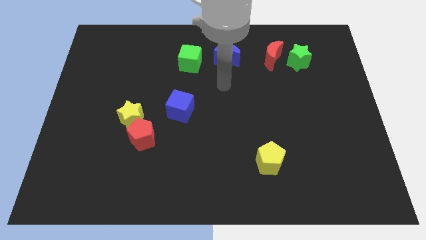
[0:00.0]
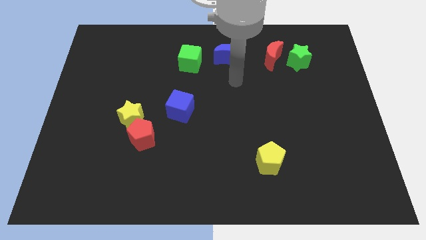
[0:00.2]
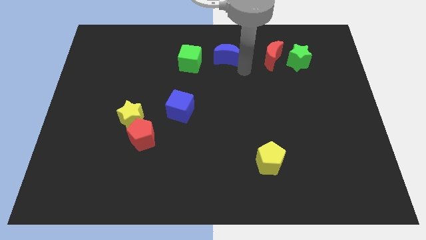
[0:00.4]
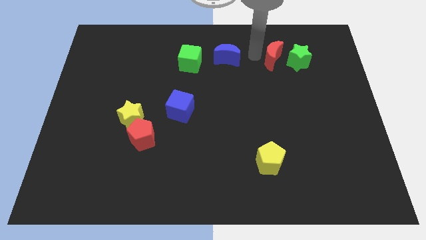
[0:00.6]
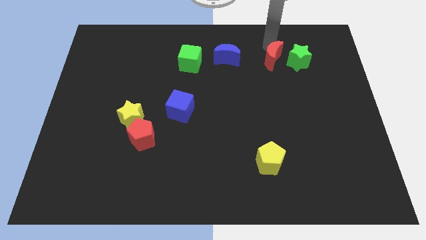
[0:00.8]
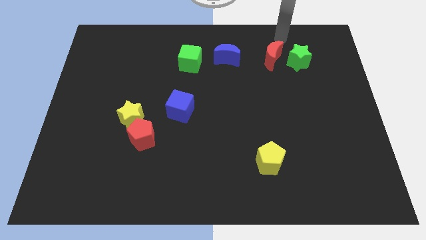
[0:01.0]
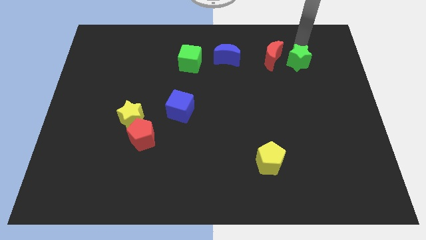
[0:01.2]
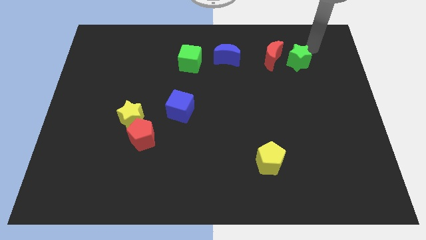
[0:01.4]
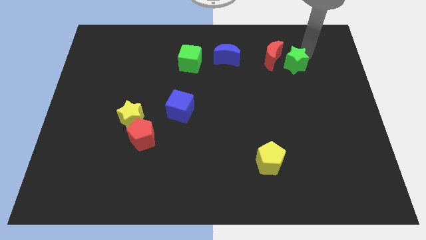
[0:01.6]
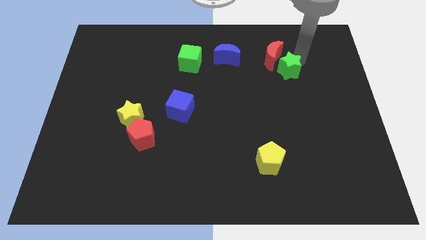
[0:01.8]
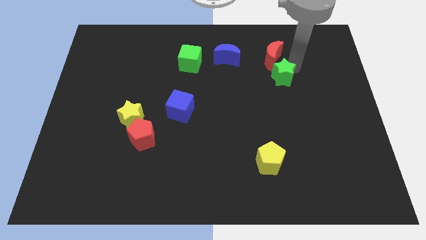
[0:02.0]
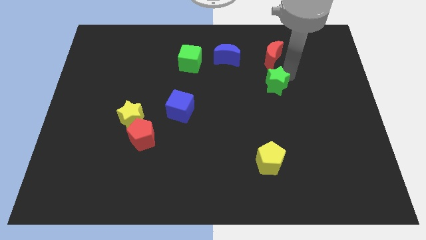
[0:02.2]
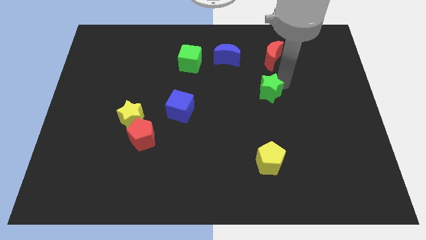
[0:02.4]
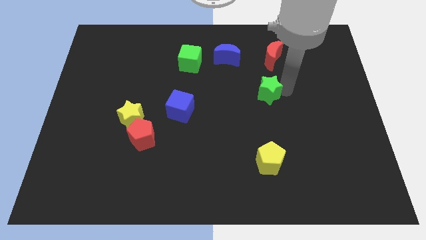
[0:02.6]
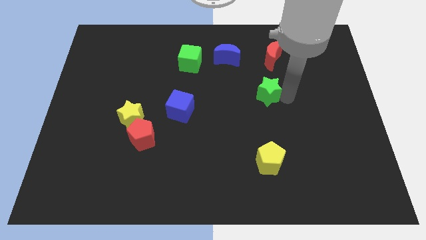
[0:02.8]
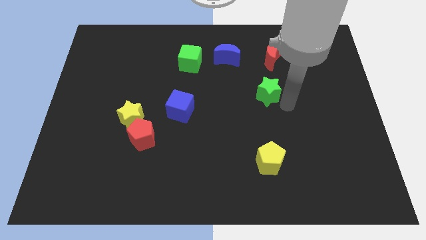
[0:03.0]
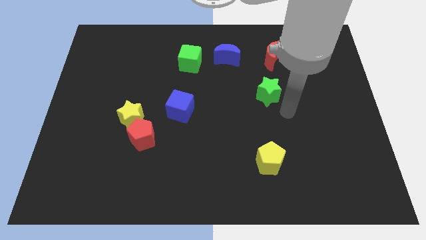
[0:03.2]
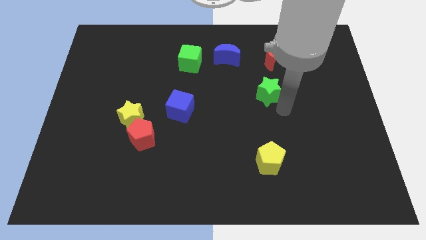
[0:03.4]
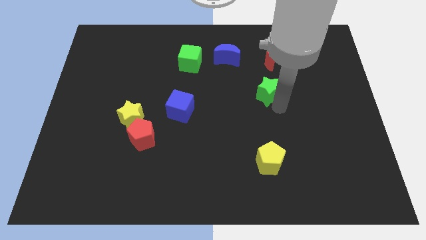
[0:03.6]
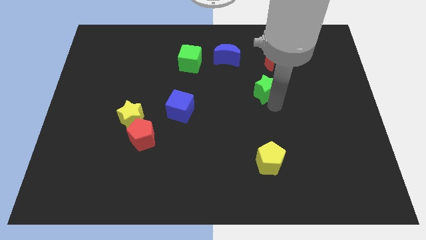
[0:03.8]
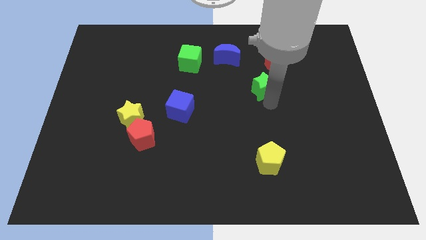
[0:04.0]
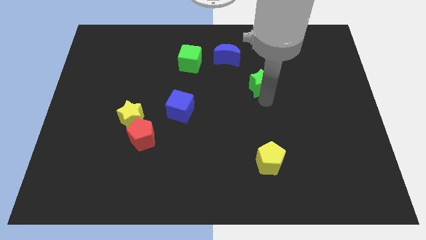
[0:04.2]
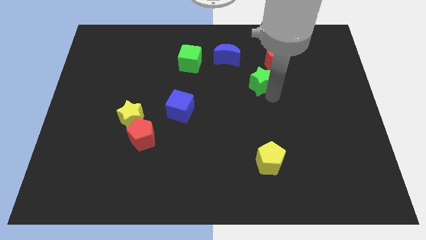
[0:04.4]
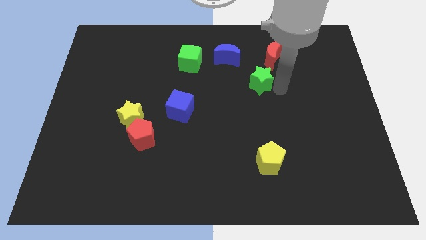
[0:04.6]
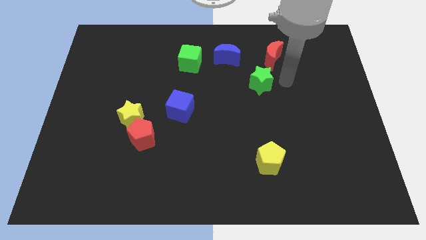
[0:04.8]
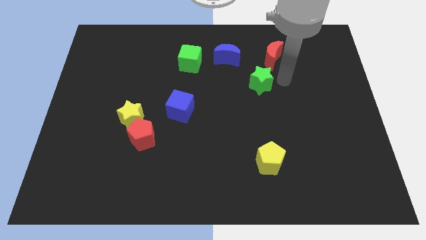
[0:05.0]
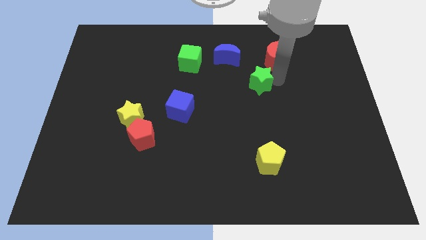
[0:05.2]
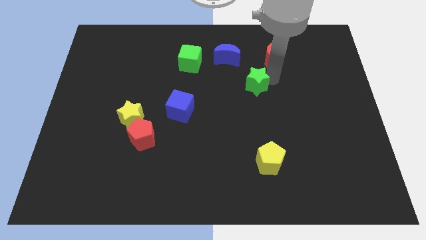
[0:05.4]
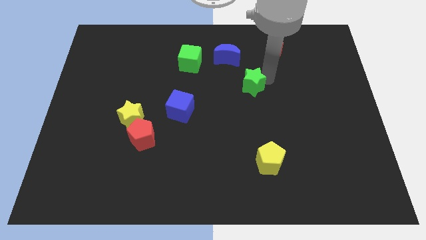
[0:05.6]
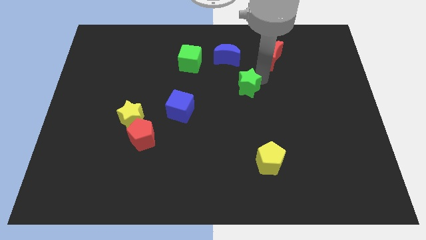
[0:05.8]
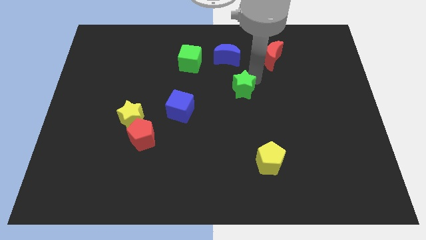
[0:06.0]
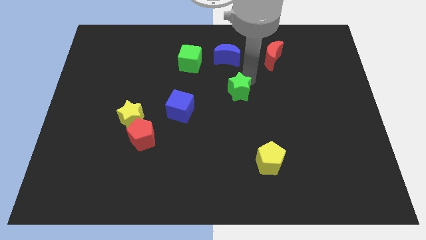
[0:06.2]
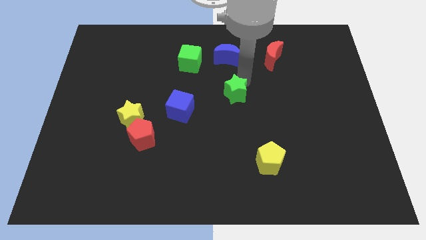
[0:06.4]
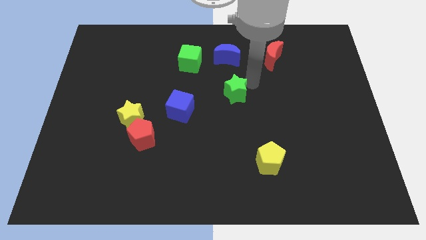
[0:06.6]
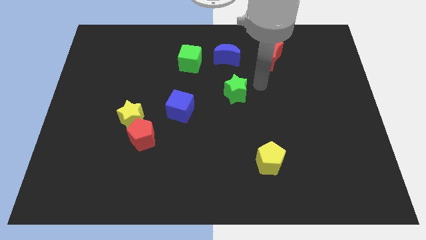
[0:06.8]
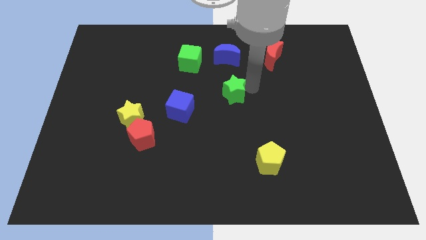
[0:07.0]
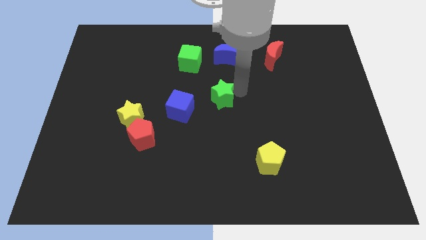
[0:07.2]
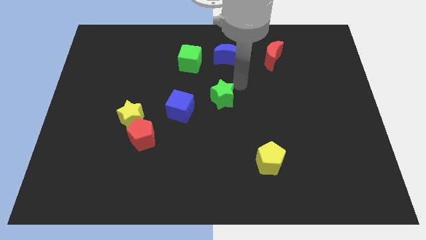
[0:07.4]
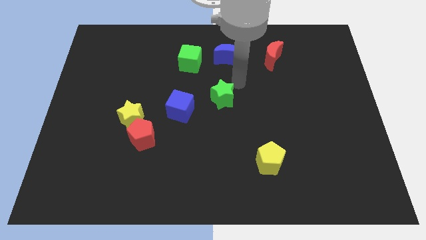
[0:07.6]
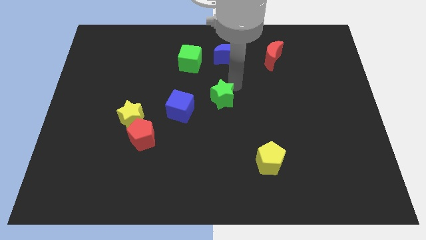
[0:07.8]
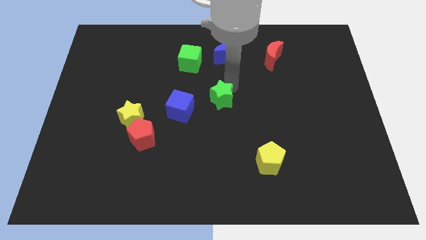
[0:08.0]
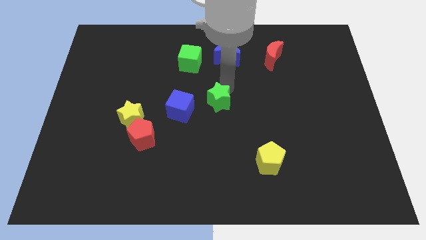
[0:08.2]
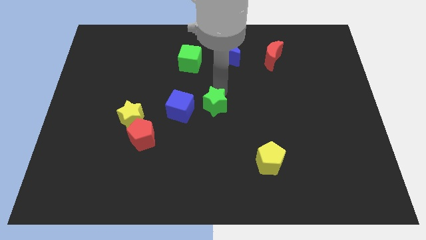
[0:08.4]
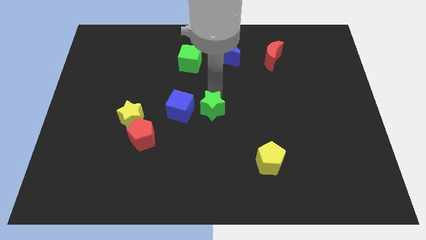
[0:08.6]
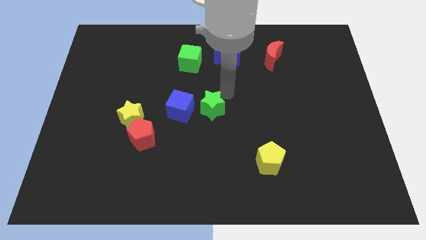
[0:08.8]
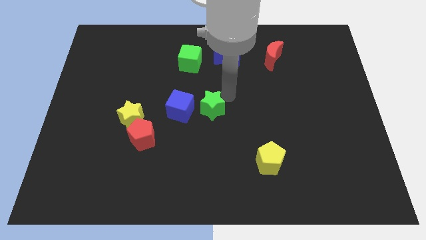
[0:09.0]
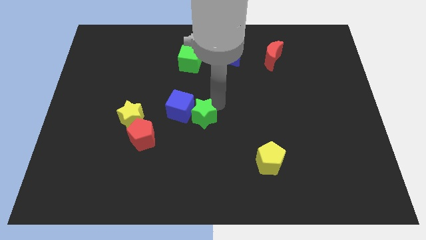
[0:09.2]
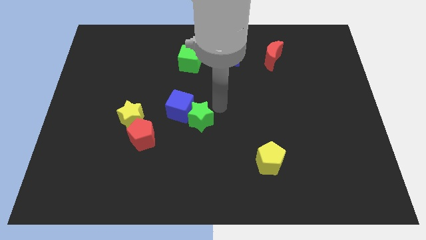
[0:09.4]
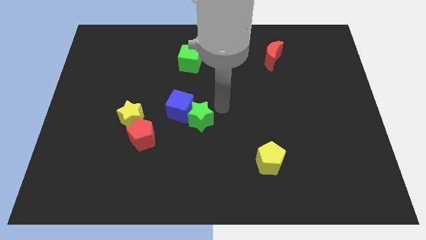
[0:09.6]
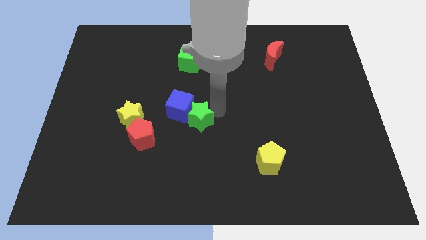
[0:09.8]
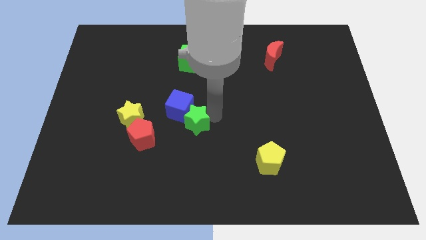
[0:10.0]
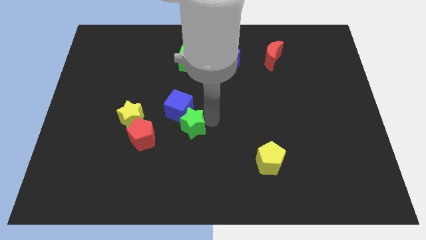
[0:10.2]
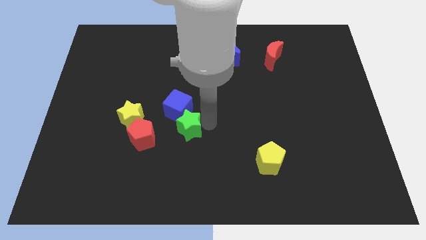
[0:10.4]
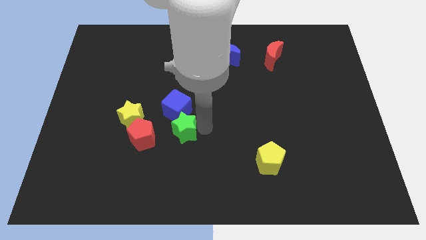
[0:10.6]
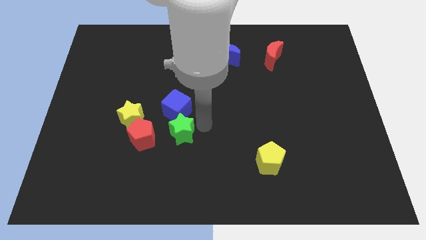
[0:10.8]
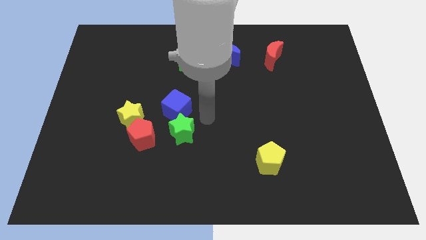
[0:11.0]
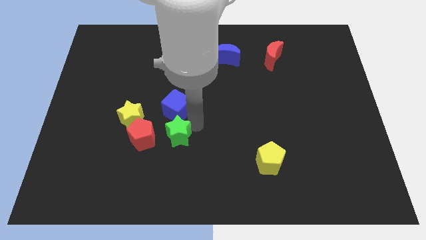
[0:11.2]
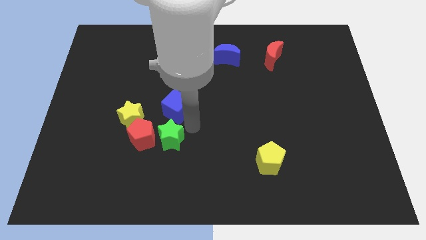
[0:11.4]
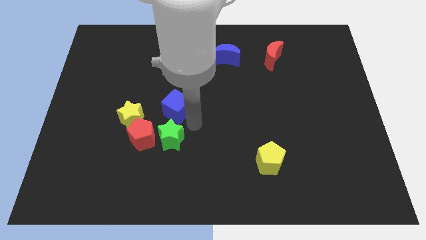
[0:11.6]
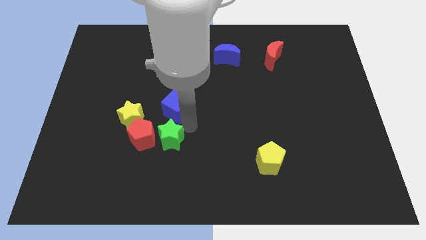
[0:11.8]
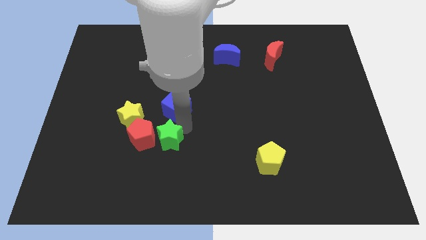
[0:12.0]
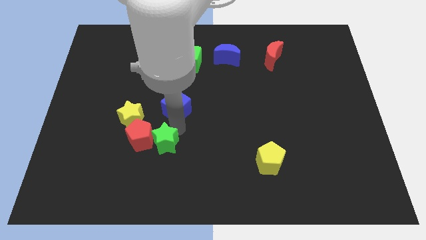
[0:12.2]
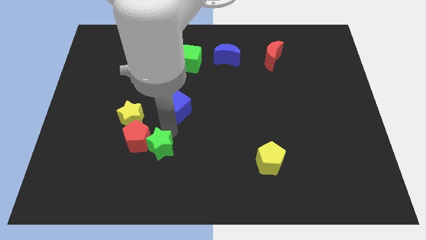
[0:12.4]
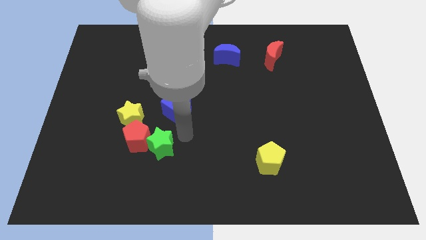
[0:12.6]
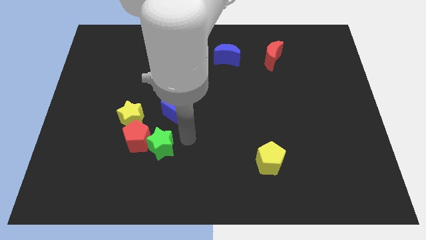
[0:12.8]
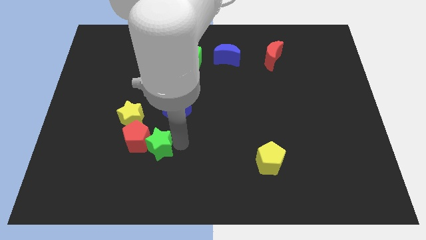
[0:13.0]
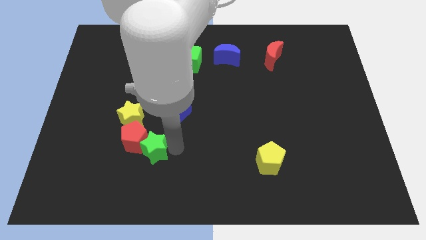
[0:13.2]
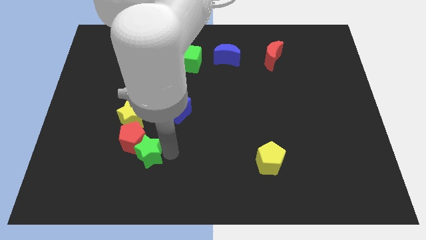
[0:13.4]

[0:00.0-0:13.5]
push the green star to the bottom side of the yellow star

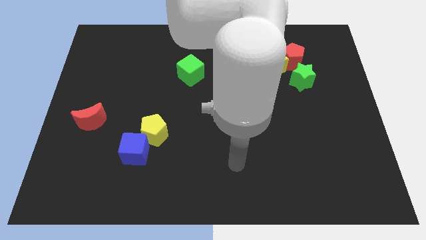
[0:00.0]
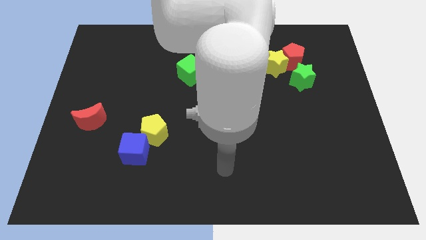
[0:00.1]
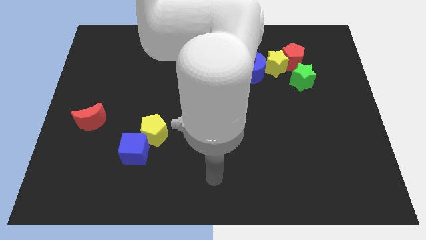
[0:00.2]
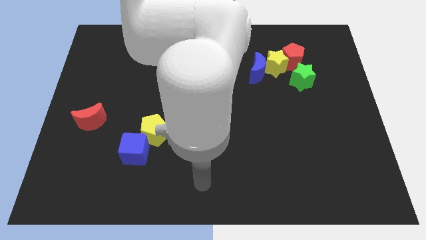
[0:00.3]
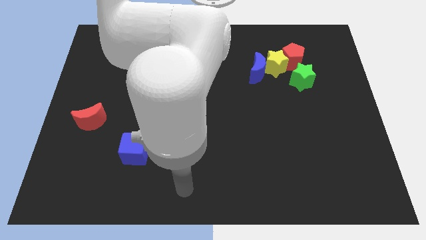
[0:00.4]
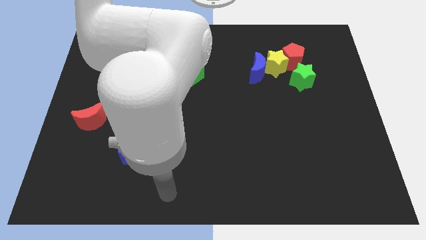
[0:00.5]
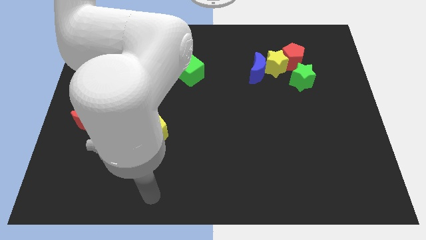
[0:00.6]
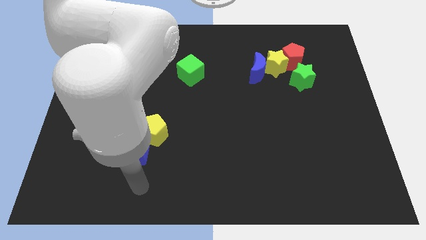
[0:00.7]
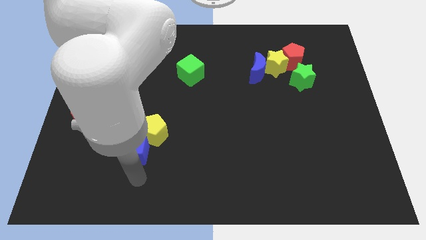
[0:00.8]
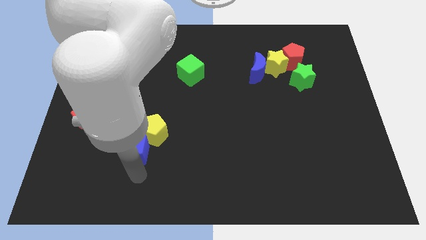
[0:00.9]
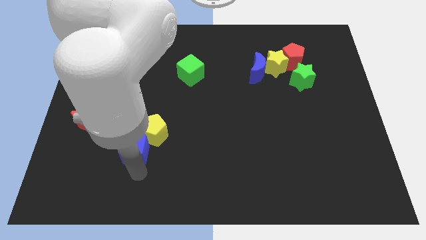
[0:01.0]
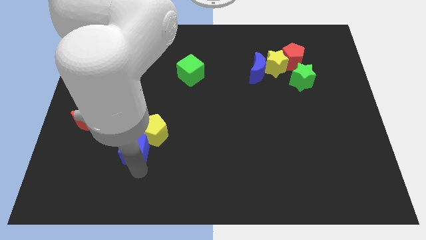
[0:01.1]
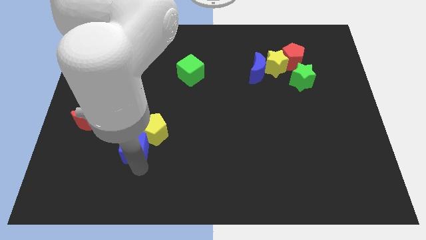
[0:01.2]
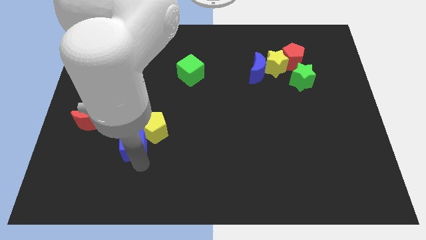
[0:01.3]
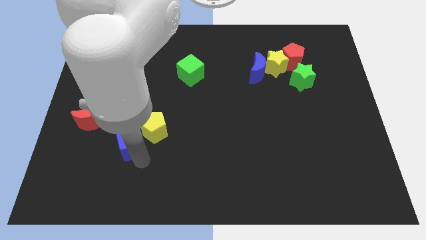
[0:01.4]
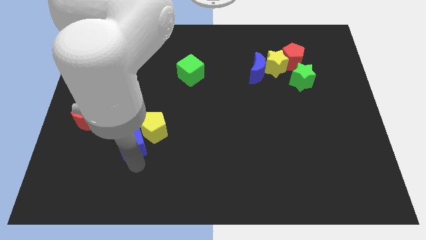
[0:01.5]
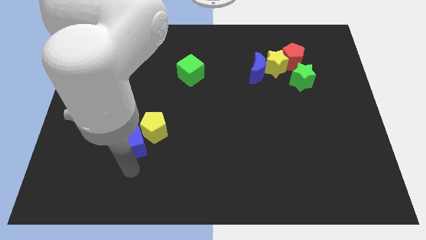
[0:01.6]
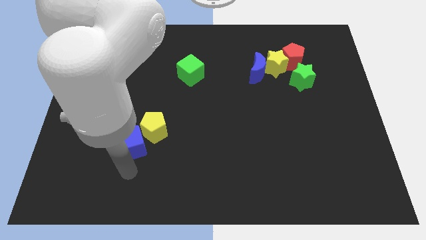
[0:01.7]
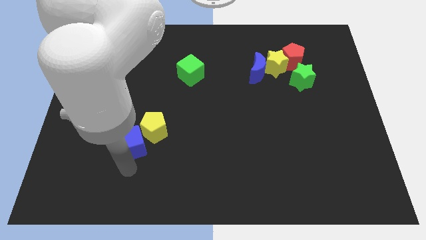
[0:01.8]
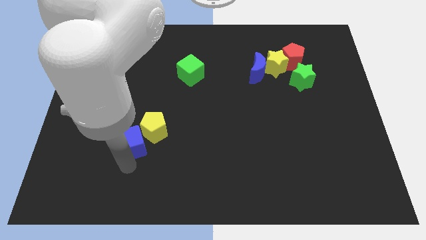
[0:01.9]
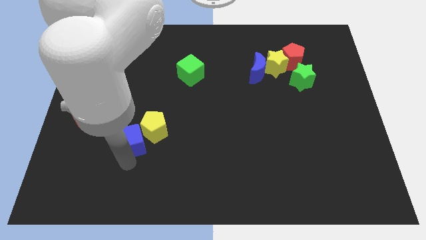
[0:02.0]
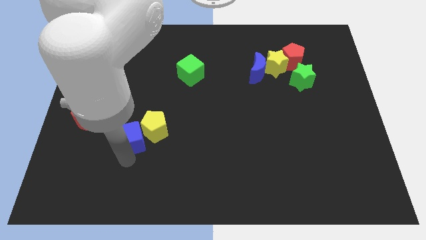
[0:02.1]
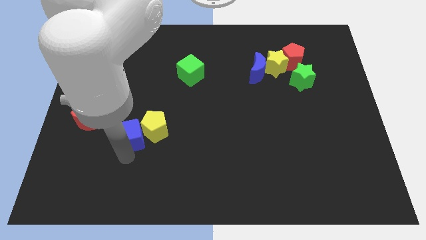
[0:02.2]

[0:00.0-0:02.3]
push the blue cube to the right of the red moon
